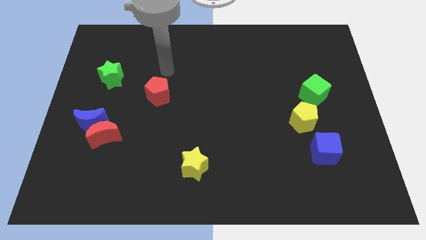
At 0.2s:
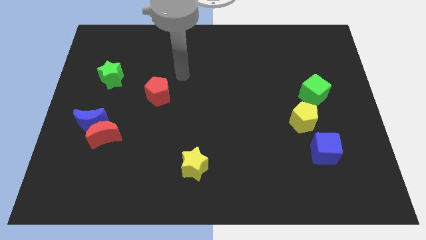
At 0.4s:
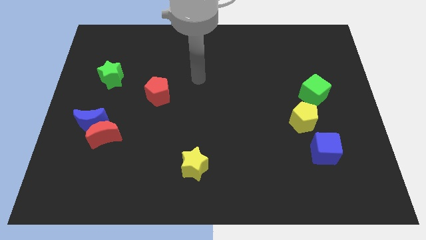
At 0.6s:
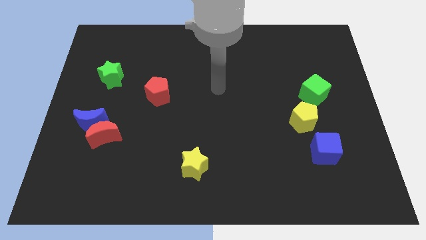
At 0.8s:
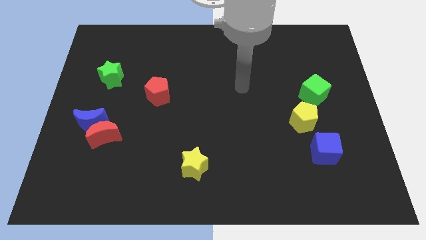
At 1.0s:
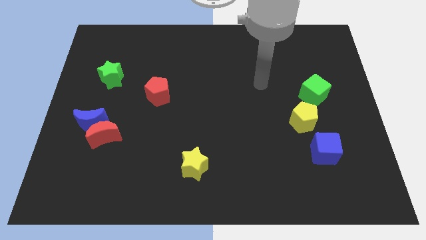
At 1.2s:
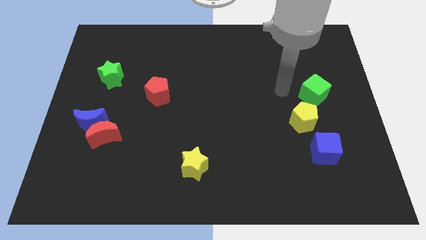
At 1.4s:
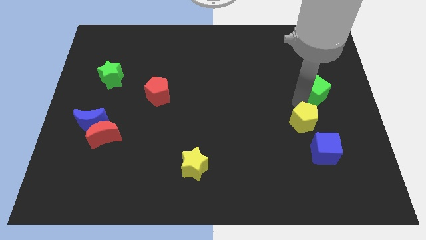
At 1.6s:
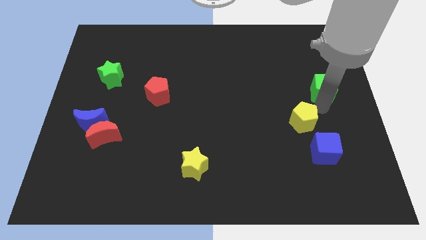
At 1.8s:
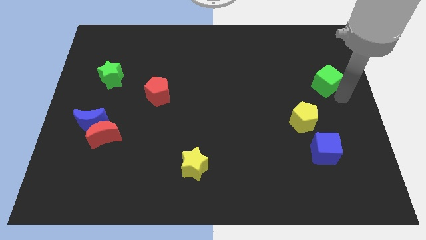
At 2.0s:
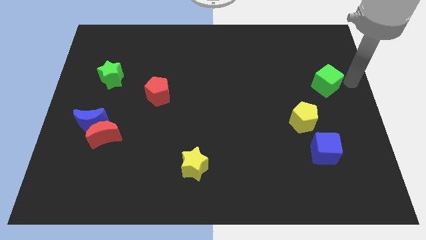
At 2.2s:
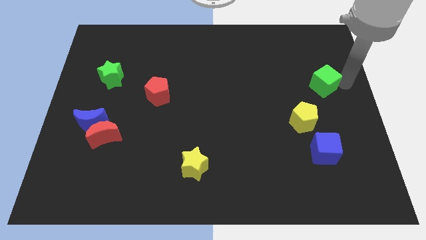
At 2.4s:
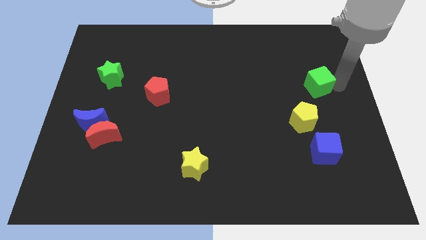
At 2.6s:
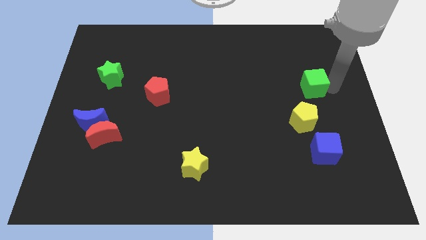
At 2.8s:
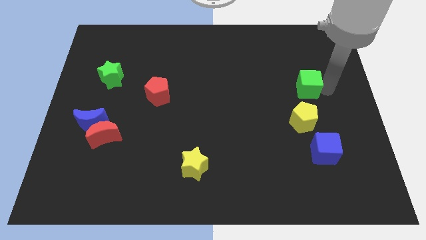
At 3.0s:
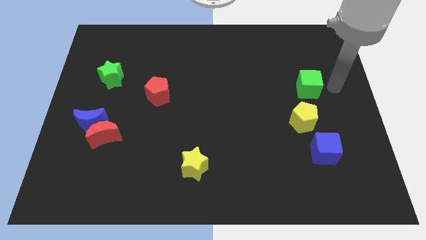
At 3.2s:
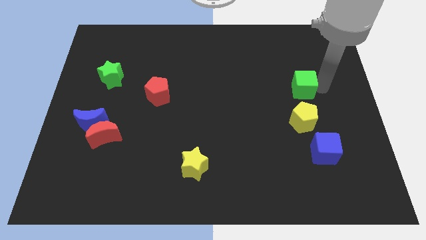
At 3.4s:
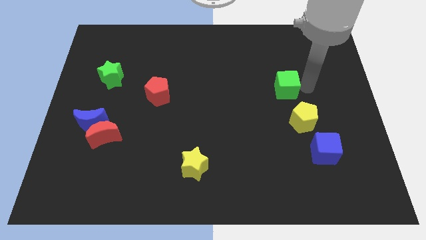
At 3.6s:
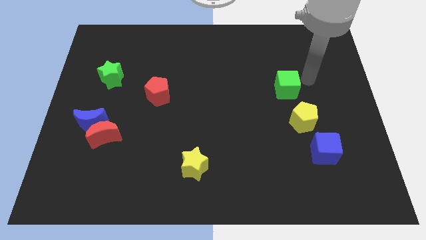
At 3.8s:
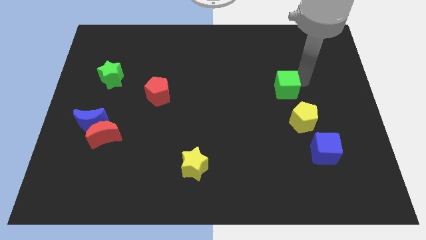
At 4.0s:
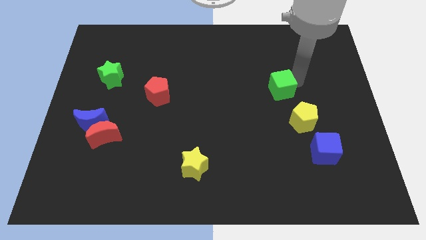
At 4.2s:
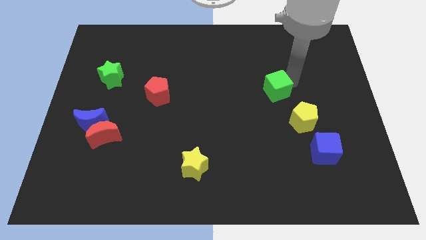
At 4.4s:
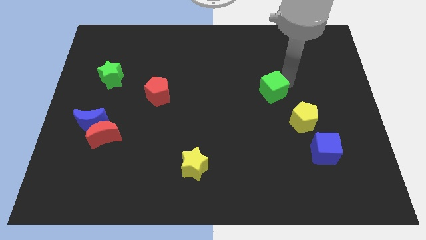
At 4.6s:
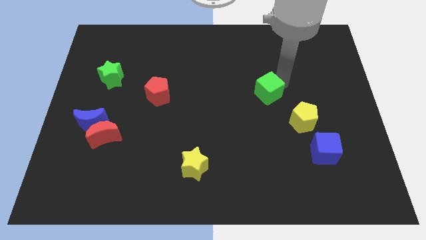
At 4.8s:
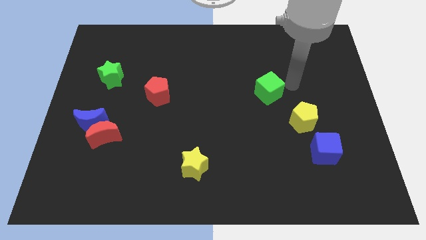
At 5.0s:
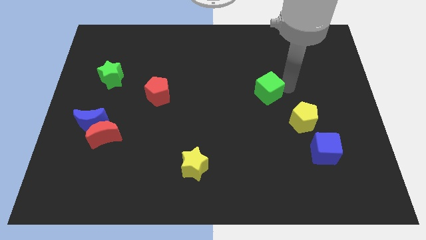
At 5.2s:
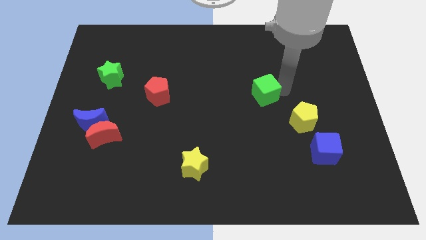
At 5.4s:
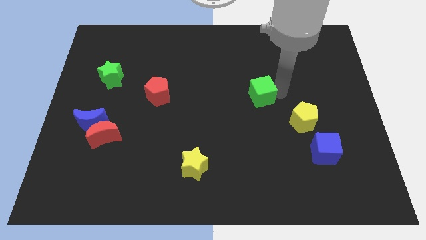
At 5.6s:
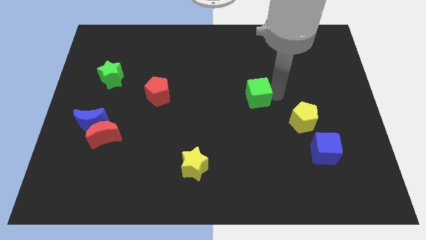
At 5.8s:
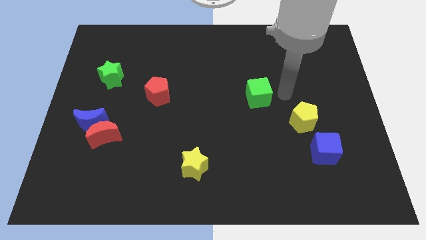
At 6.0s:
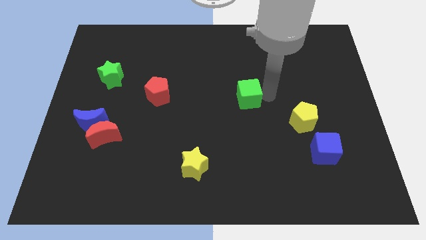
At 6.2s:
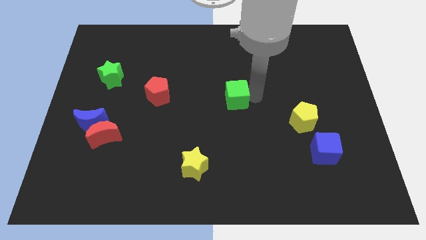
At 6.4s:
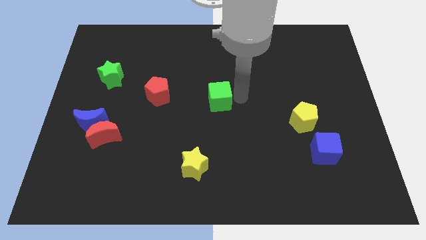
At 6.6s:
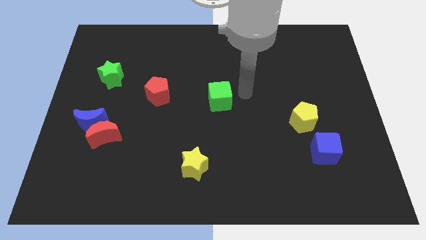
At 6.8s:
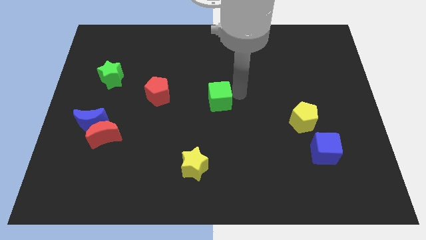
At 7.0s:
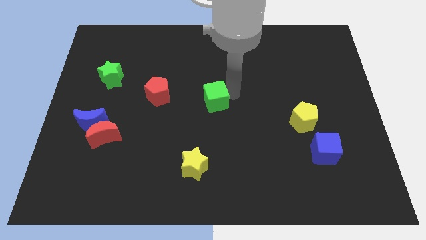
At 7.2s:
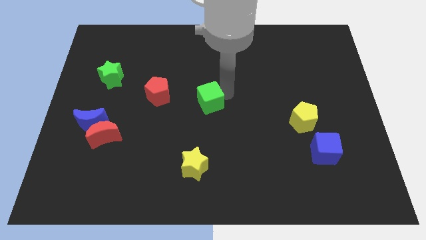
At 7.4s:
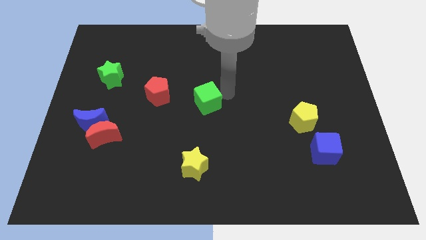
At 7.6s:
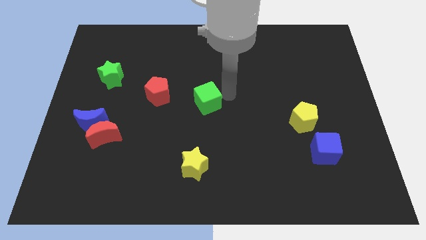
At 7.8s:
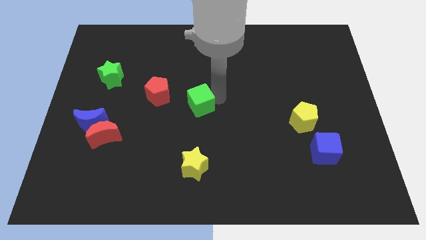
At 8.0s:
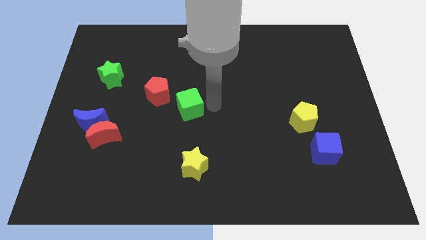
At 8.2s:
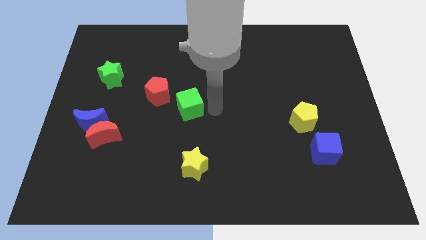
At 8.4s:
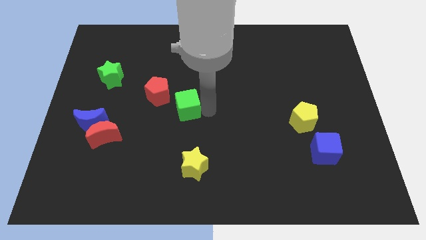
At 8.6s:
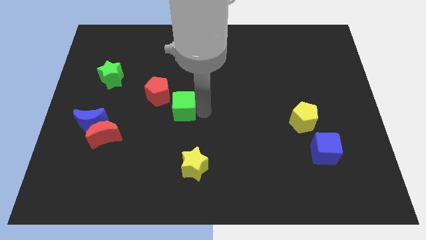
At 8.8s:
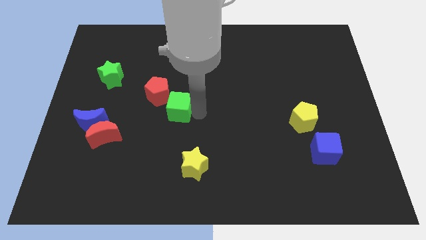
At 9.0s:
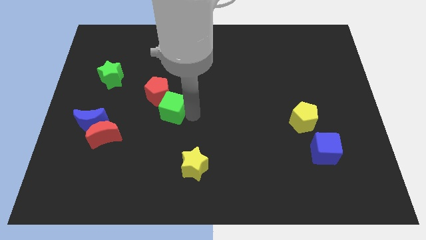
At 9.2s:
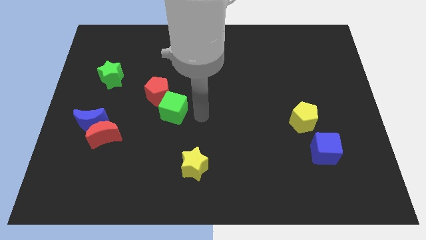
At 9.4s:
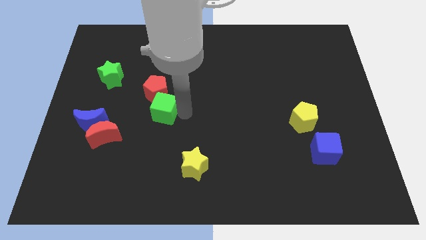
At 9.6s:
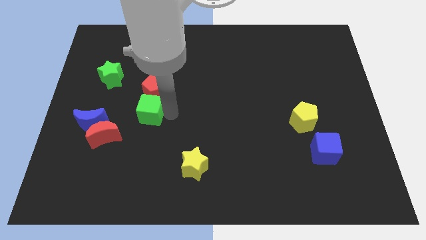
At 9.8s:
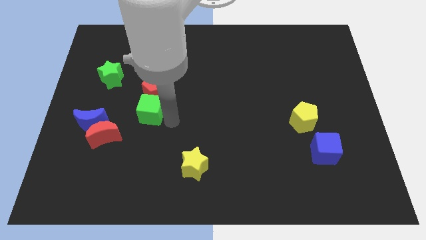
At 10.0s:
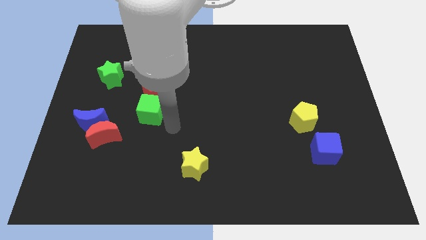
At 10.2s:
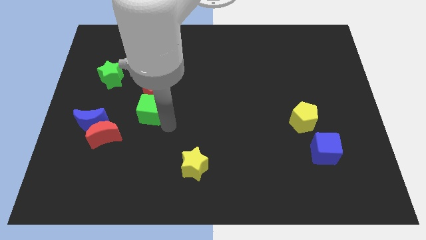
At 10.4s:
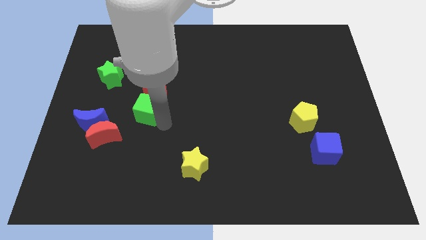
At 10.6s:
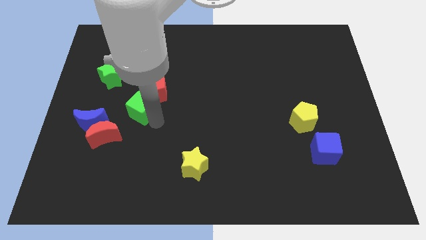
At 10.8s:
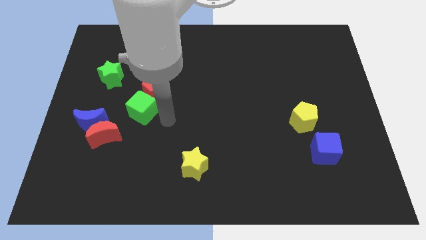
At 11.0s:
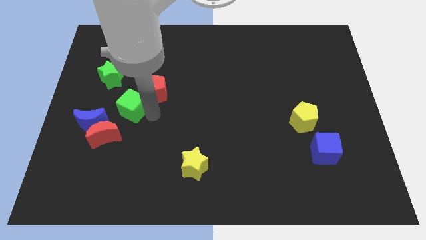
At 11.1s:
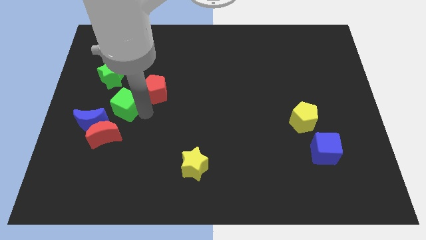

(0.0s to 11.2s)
slide the green cube to the top of the red moon

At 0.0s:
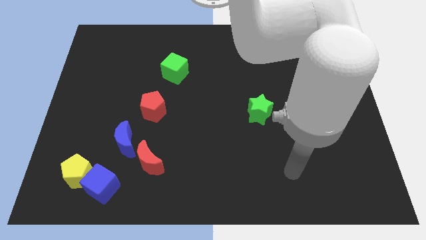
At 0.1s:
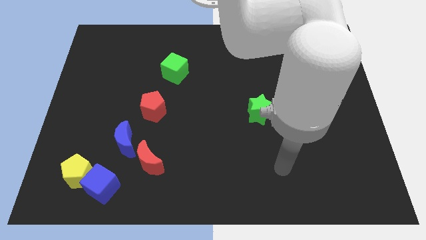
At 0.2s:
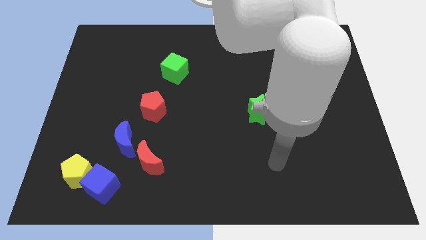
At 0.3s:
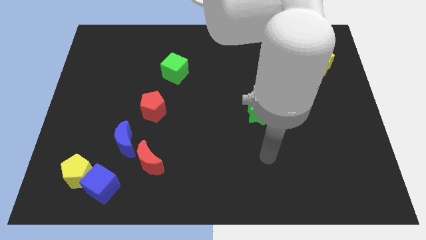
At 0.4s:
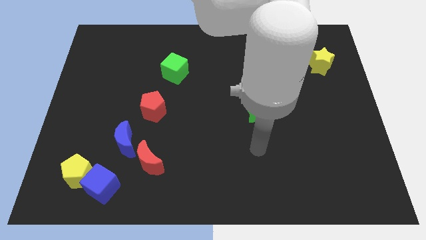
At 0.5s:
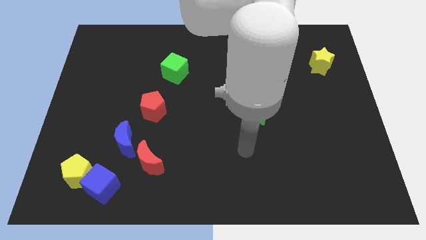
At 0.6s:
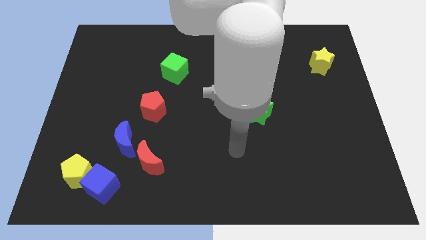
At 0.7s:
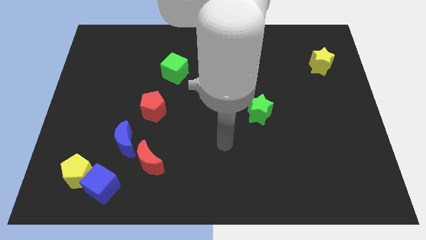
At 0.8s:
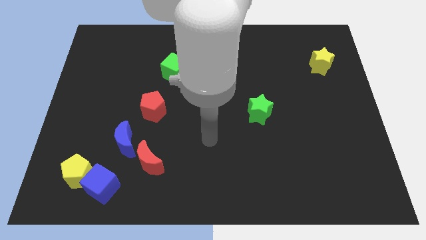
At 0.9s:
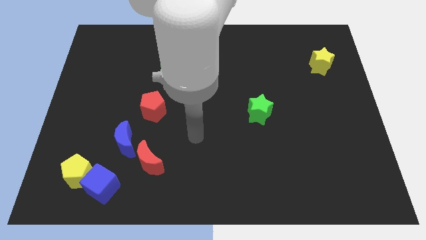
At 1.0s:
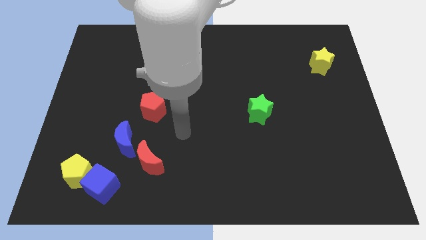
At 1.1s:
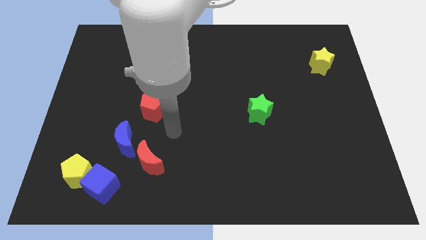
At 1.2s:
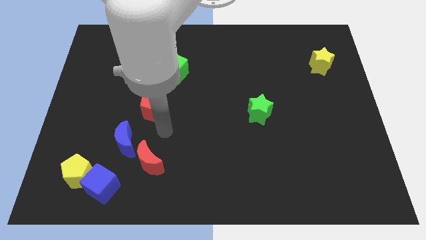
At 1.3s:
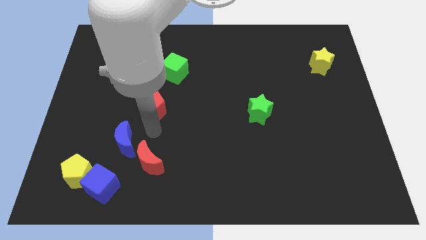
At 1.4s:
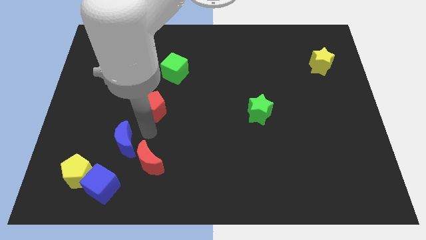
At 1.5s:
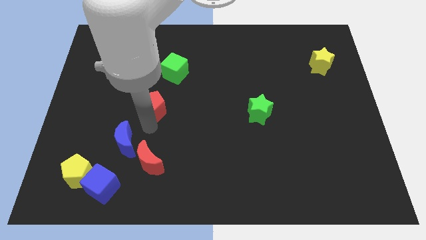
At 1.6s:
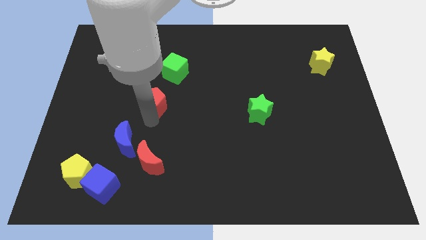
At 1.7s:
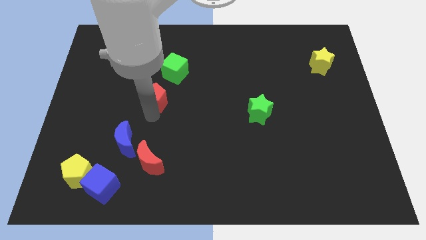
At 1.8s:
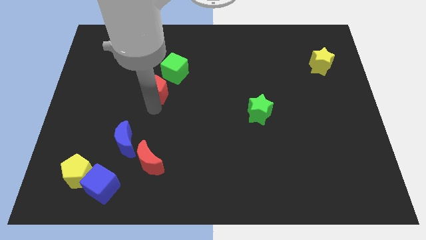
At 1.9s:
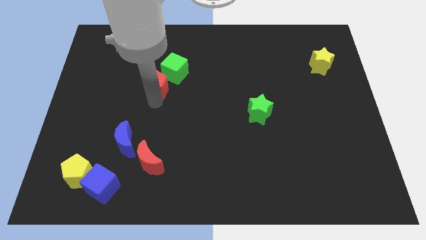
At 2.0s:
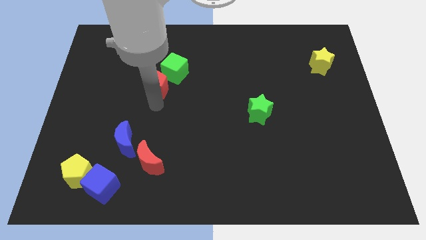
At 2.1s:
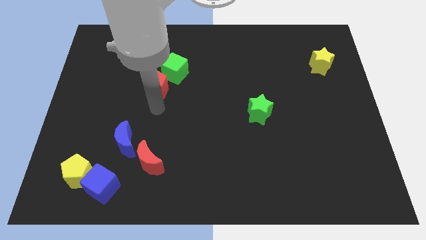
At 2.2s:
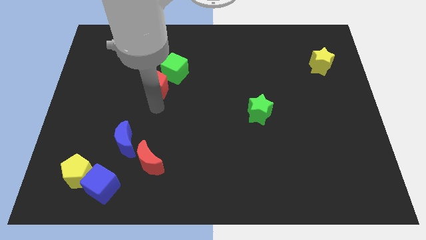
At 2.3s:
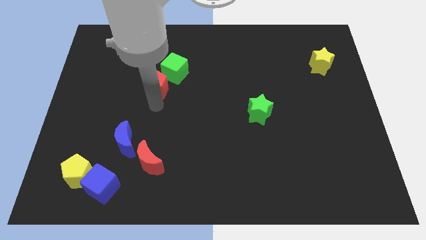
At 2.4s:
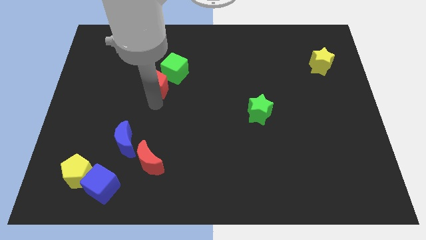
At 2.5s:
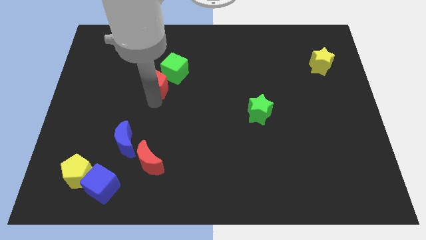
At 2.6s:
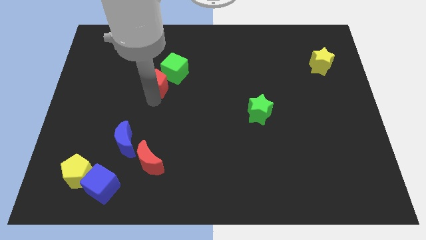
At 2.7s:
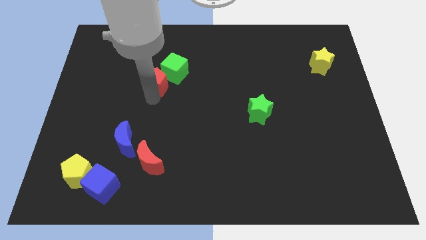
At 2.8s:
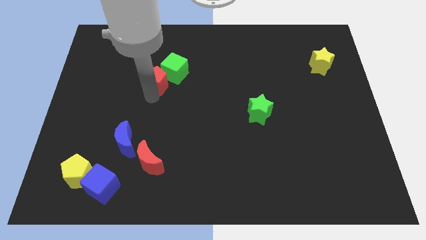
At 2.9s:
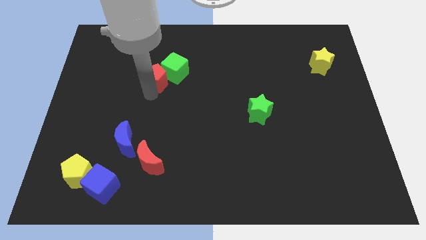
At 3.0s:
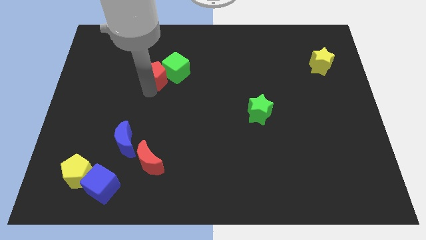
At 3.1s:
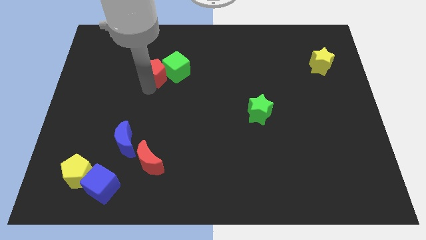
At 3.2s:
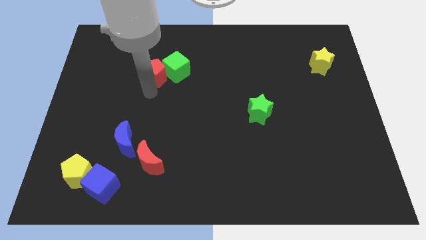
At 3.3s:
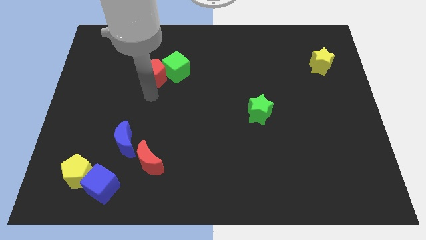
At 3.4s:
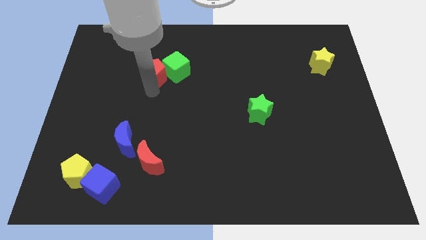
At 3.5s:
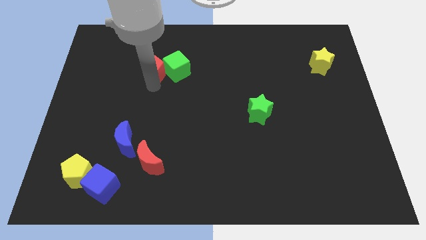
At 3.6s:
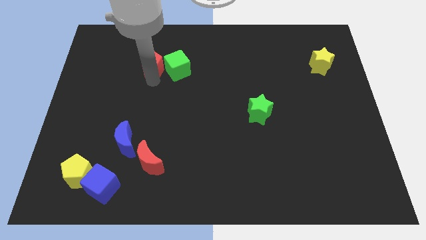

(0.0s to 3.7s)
put the red pentagon diagonally up and to the left of the green cube
